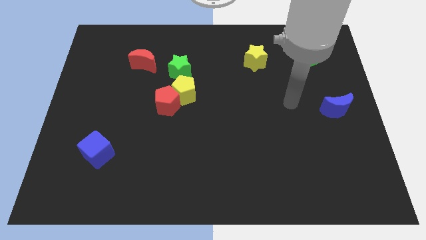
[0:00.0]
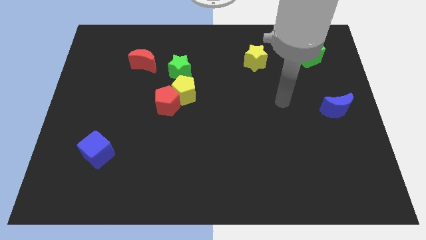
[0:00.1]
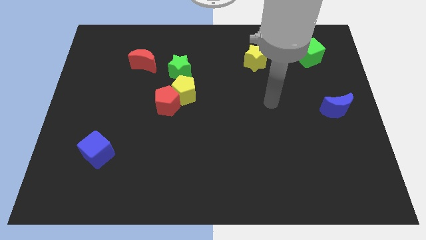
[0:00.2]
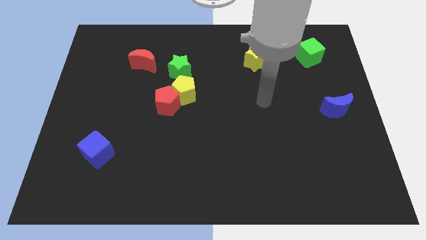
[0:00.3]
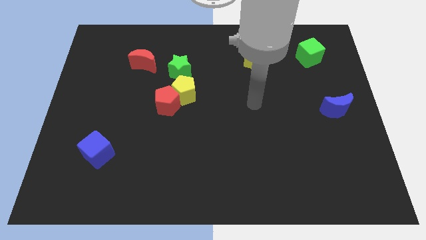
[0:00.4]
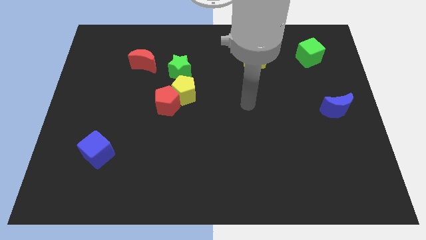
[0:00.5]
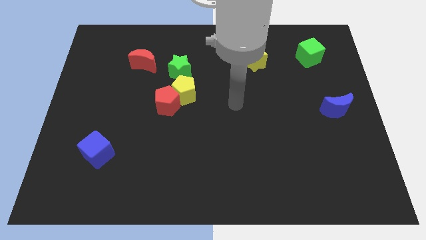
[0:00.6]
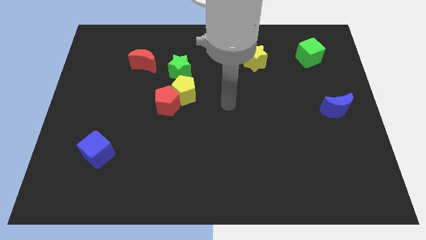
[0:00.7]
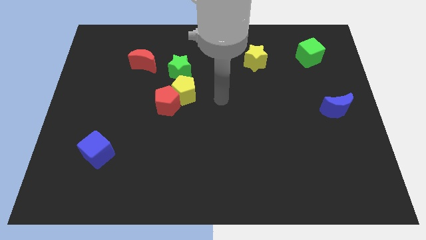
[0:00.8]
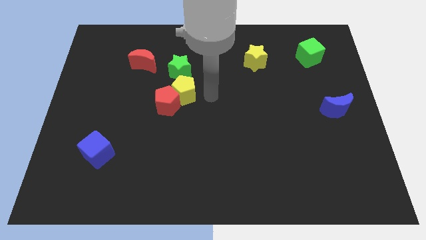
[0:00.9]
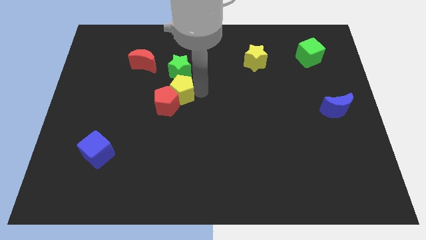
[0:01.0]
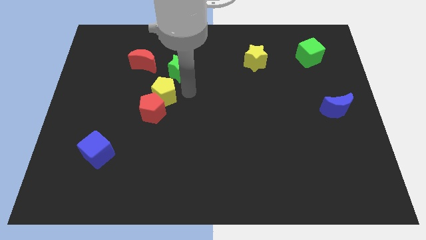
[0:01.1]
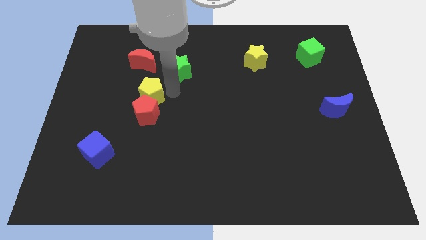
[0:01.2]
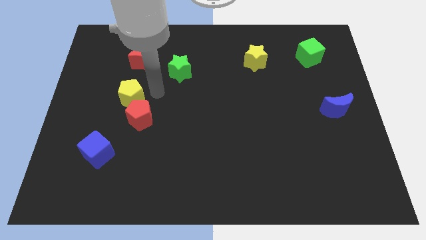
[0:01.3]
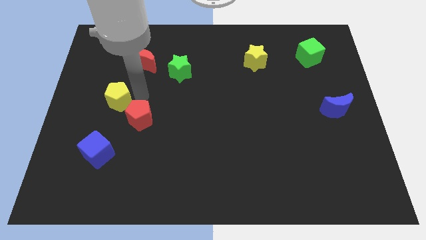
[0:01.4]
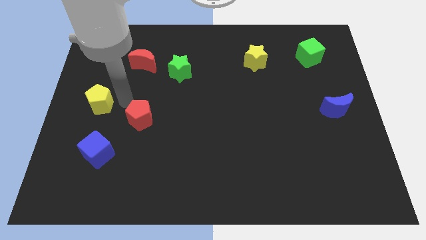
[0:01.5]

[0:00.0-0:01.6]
separate the red pentagon from the yellow pentagon

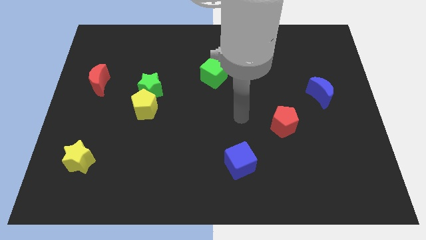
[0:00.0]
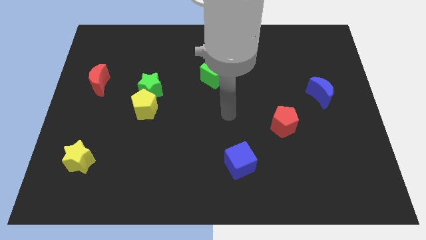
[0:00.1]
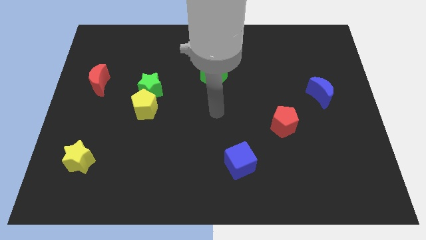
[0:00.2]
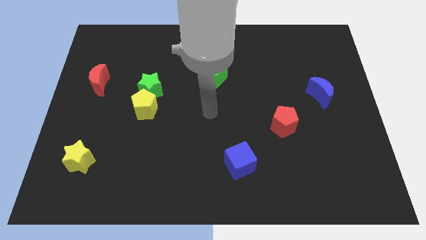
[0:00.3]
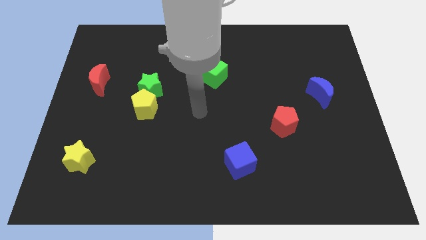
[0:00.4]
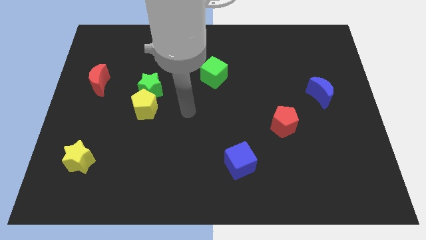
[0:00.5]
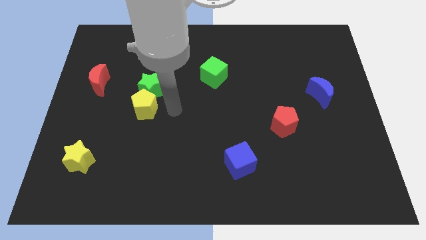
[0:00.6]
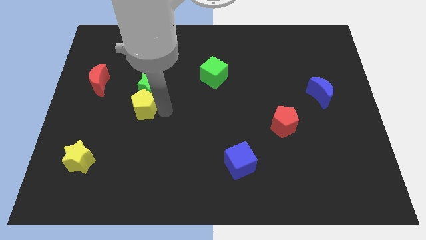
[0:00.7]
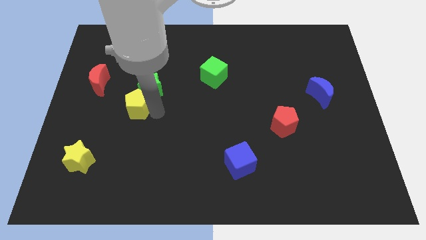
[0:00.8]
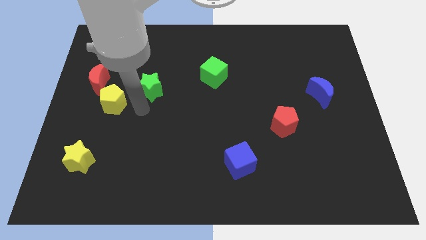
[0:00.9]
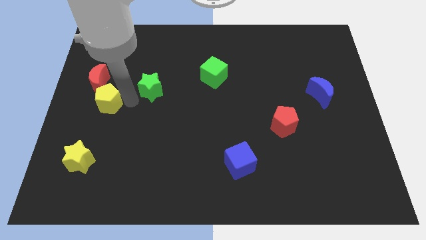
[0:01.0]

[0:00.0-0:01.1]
separate the green star from the yellow pentagon

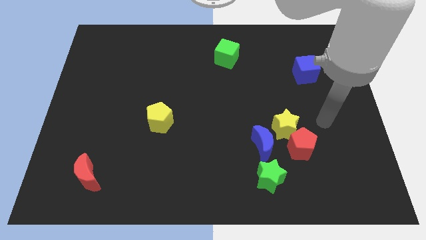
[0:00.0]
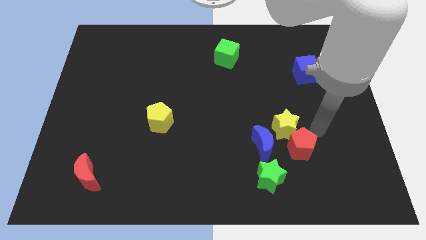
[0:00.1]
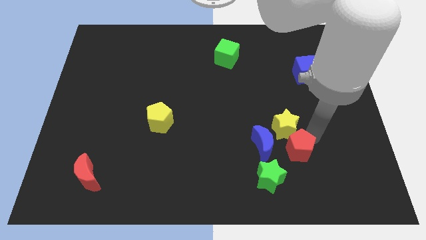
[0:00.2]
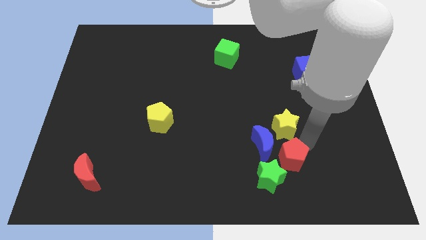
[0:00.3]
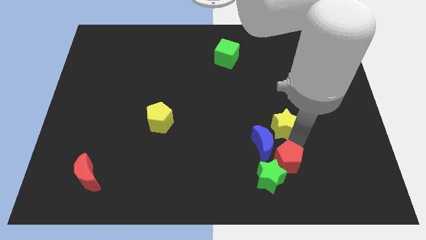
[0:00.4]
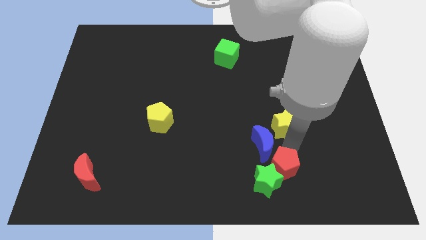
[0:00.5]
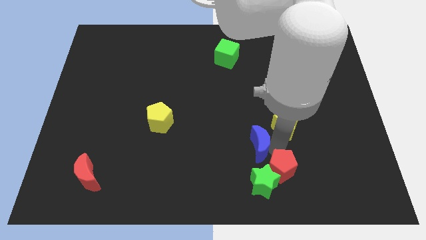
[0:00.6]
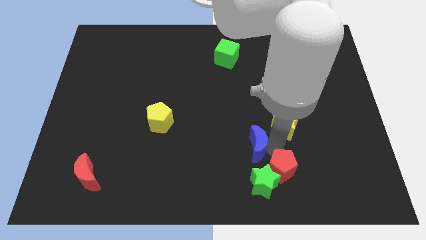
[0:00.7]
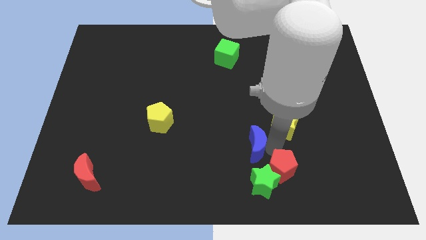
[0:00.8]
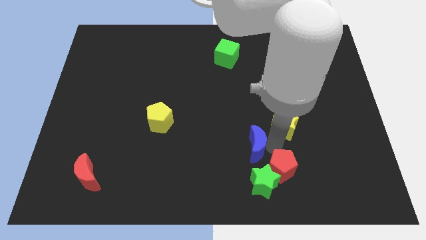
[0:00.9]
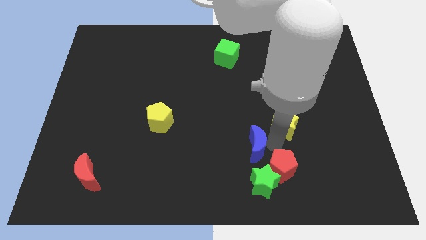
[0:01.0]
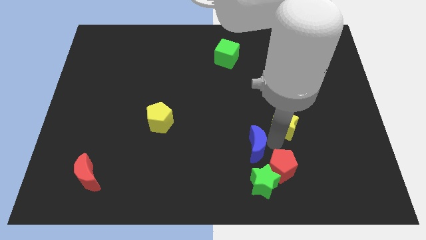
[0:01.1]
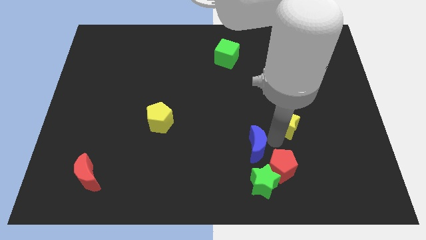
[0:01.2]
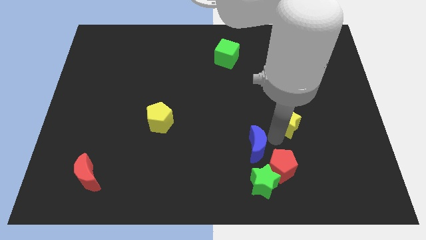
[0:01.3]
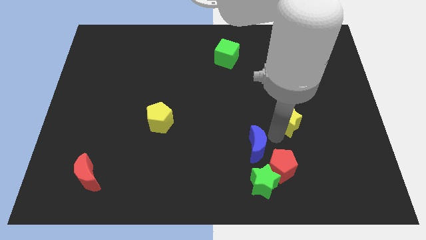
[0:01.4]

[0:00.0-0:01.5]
move the yellow star away from the red pentagon and blue moon

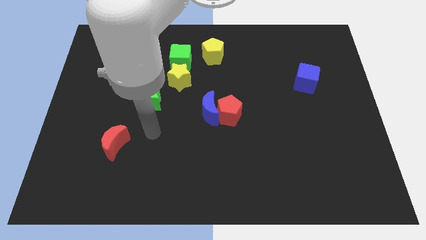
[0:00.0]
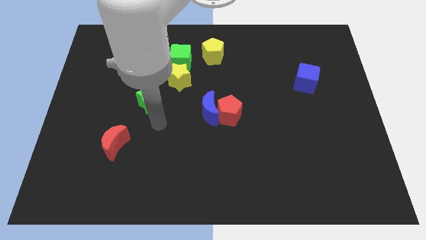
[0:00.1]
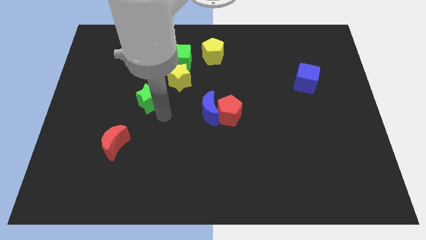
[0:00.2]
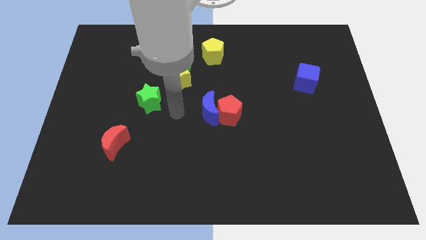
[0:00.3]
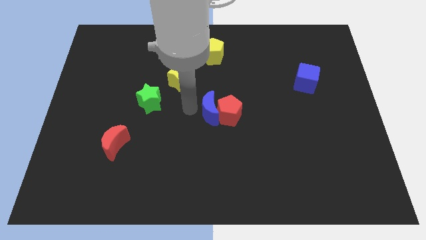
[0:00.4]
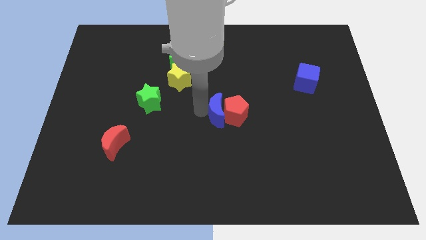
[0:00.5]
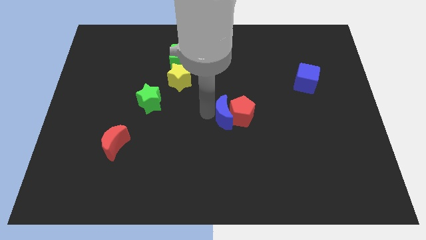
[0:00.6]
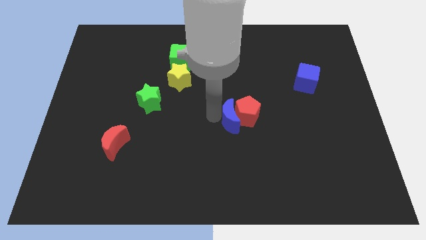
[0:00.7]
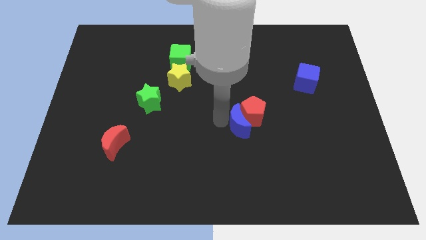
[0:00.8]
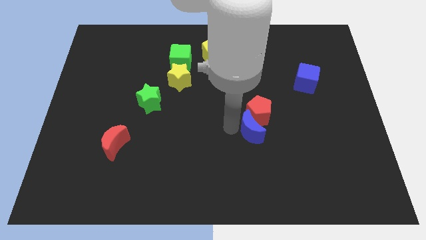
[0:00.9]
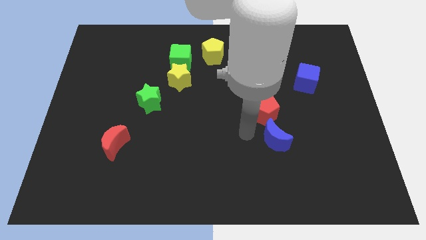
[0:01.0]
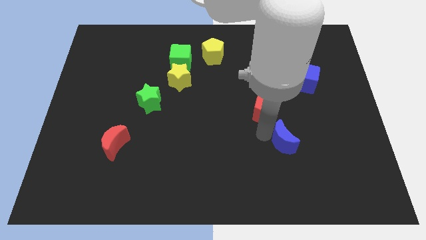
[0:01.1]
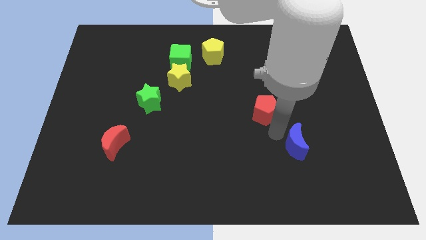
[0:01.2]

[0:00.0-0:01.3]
pull the red pentagon apart from the blue moon

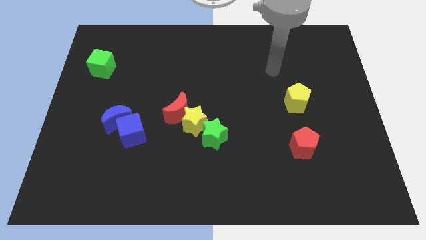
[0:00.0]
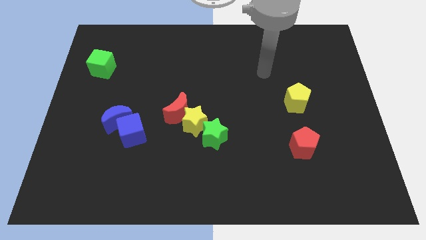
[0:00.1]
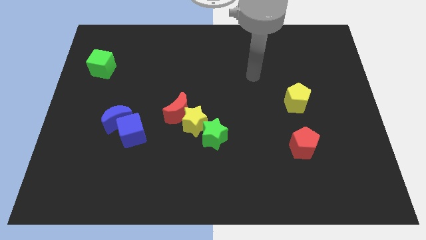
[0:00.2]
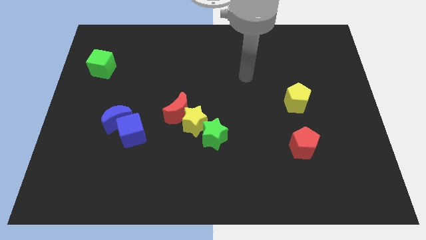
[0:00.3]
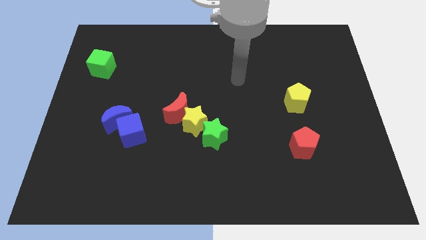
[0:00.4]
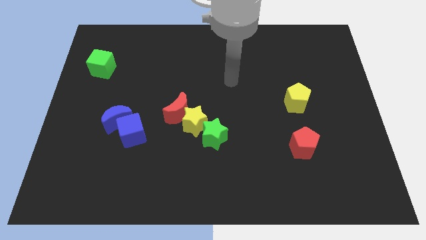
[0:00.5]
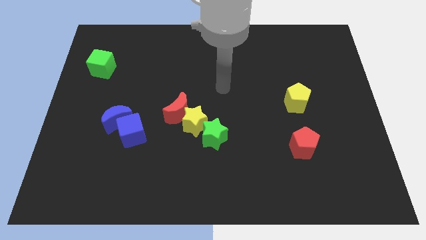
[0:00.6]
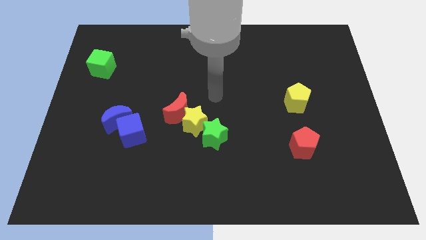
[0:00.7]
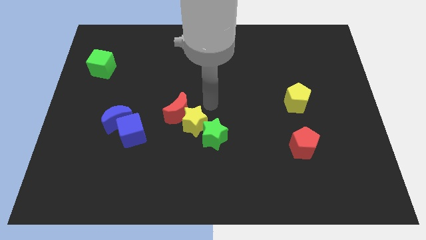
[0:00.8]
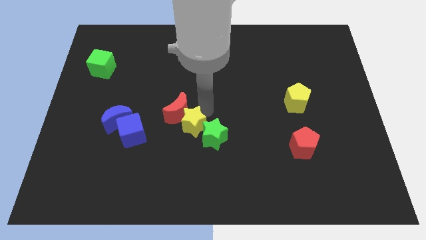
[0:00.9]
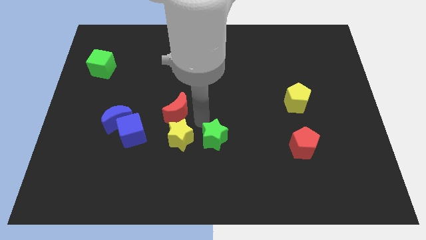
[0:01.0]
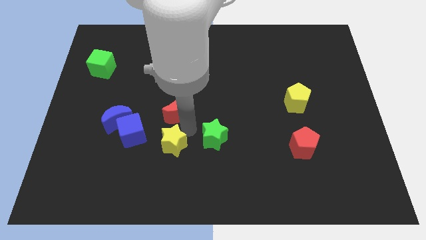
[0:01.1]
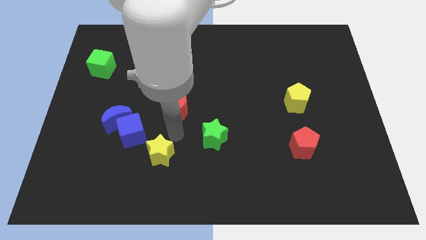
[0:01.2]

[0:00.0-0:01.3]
pull the red moon apart from the yellow star

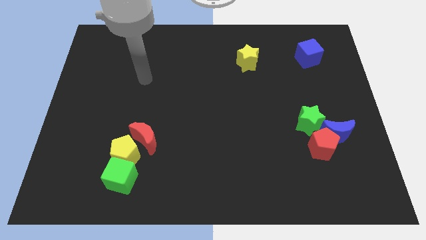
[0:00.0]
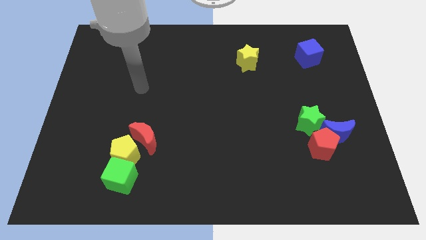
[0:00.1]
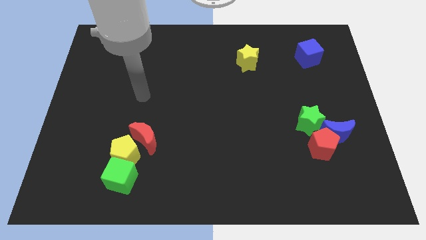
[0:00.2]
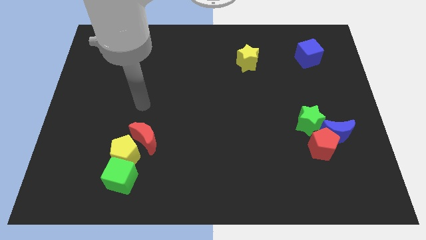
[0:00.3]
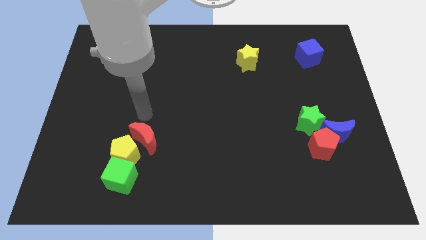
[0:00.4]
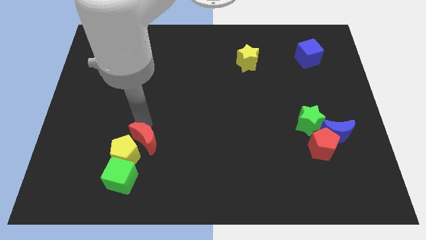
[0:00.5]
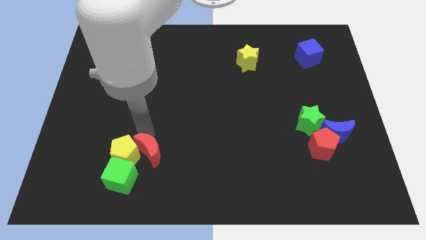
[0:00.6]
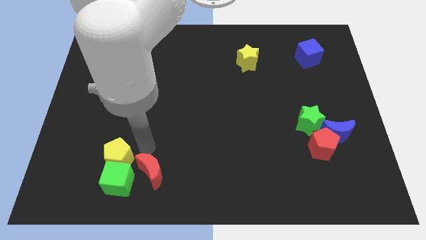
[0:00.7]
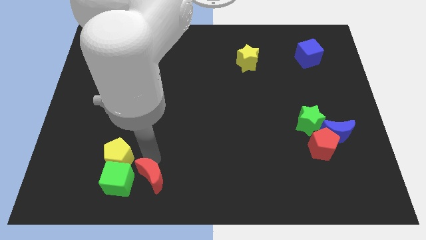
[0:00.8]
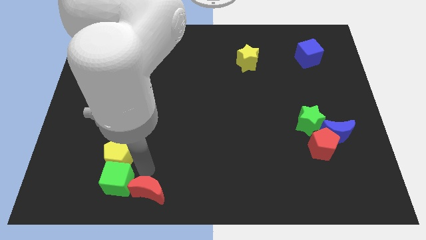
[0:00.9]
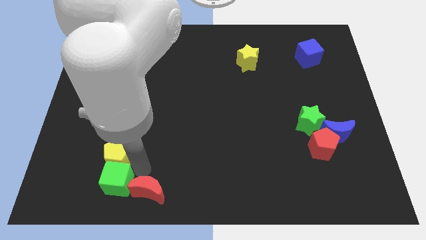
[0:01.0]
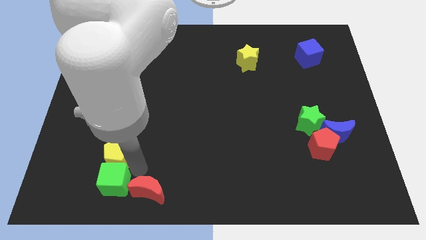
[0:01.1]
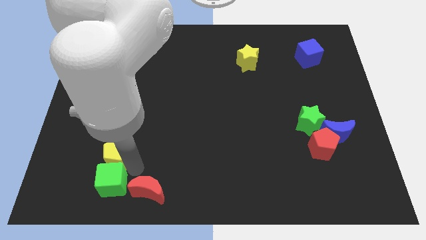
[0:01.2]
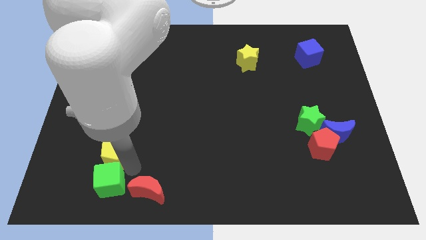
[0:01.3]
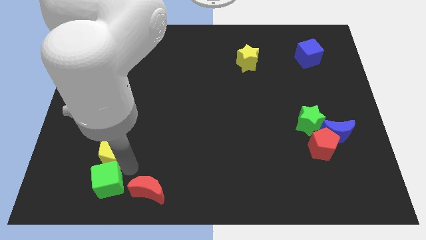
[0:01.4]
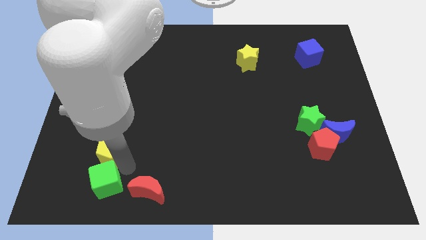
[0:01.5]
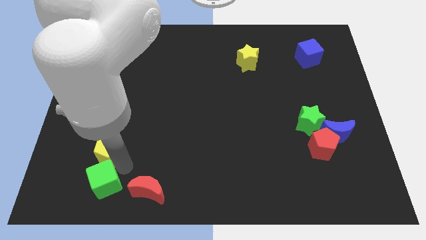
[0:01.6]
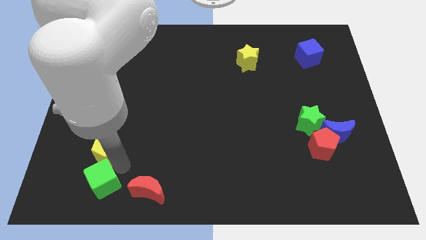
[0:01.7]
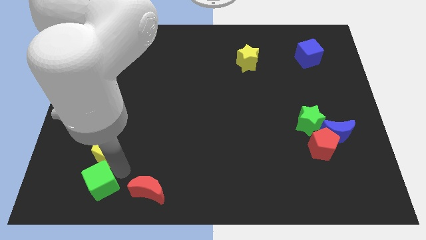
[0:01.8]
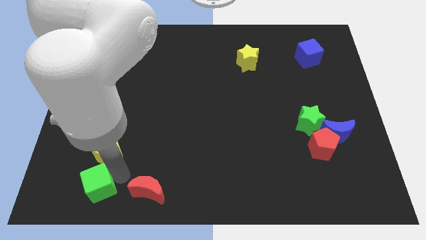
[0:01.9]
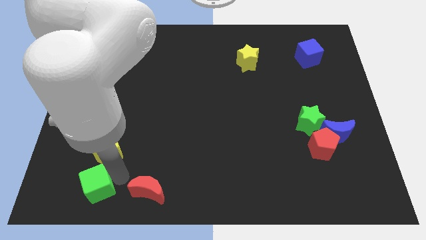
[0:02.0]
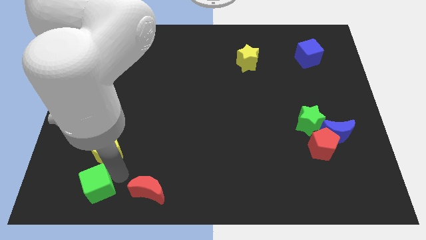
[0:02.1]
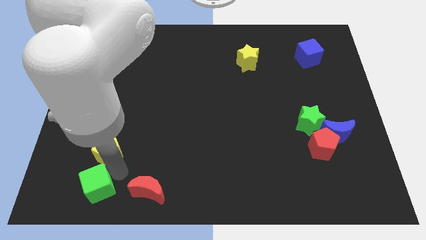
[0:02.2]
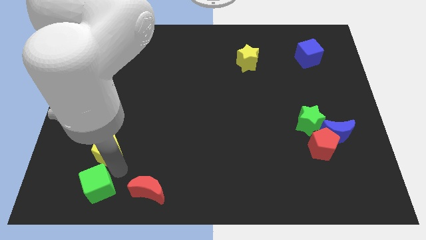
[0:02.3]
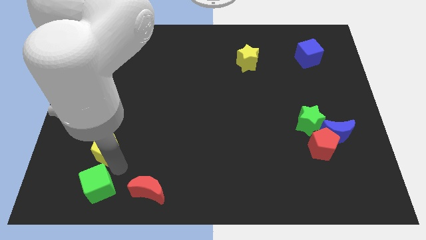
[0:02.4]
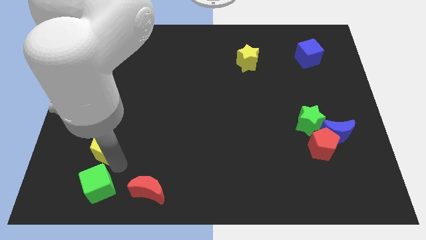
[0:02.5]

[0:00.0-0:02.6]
separate the yellow pentagon from the green cube and red moon
